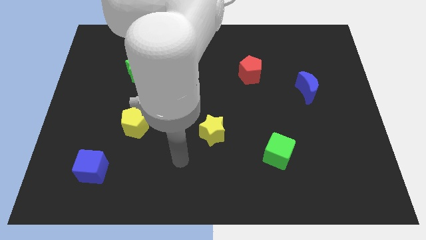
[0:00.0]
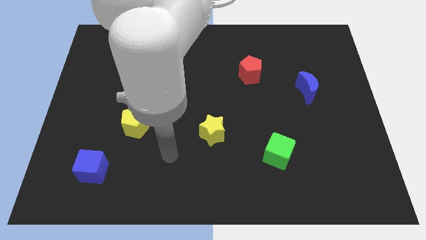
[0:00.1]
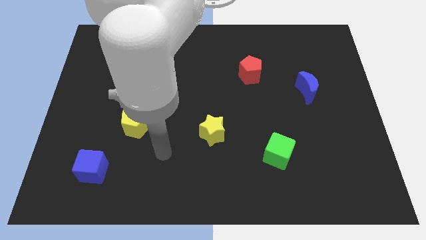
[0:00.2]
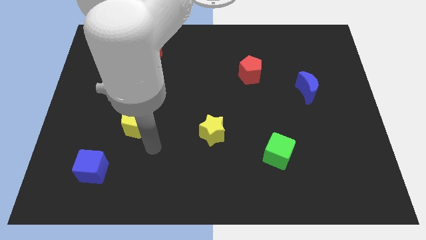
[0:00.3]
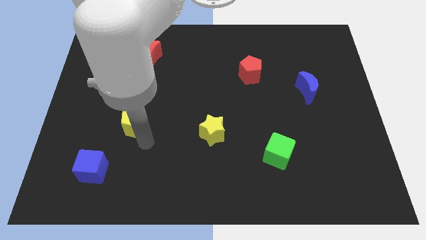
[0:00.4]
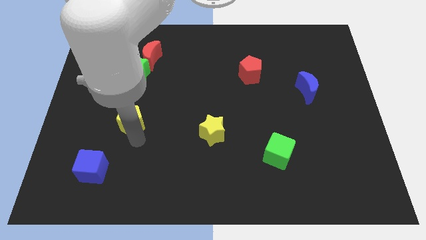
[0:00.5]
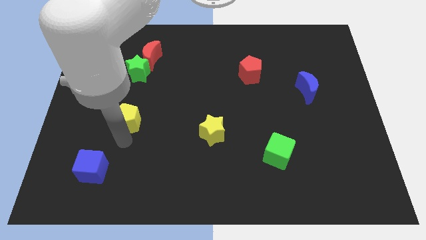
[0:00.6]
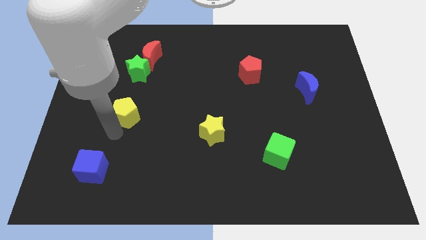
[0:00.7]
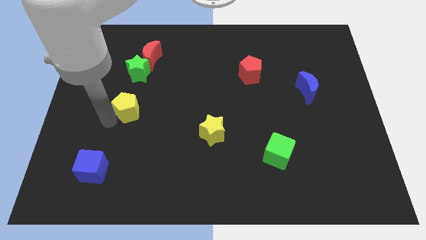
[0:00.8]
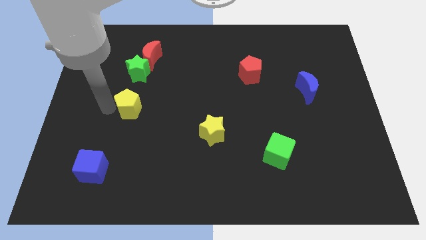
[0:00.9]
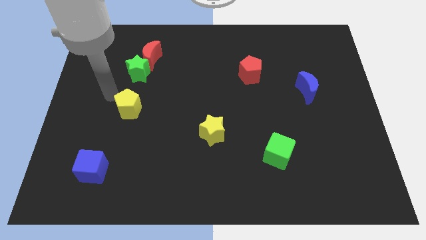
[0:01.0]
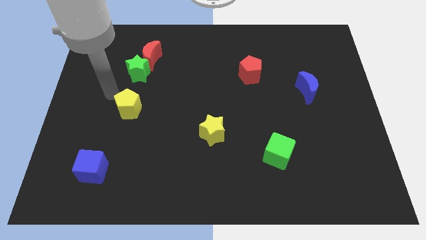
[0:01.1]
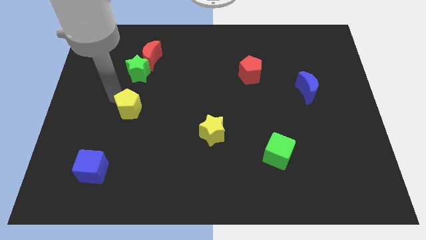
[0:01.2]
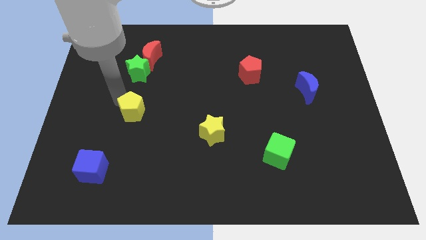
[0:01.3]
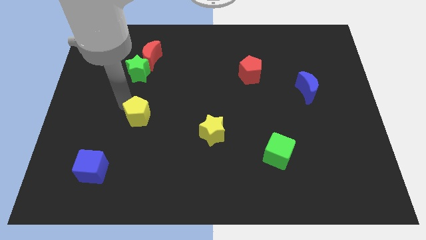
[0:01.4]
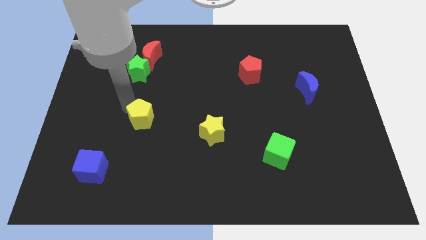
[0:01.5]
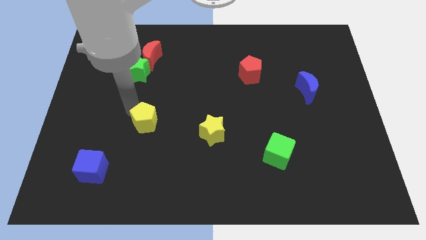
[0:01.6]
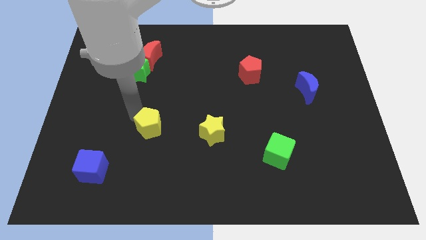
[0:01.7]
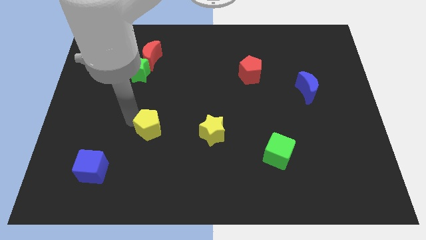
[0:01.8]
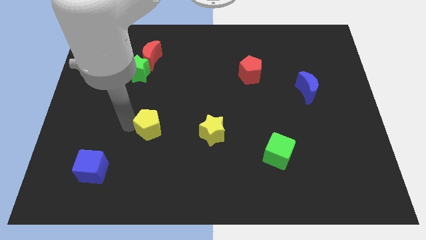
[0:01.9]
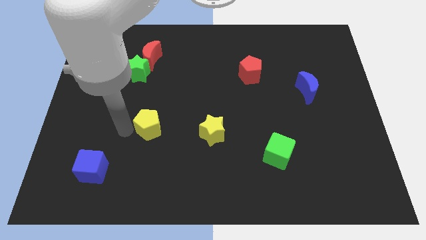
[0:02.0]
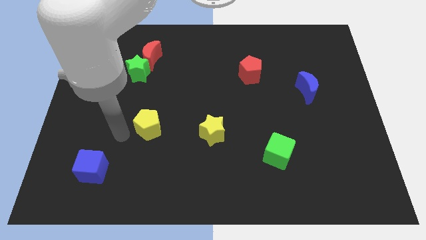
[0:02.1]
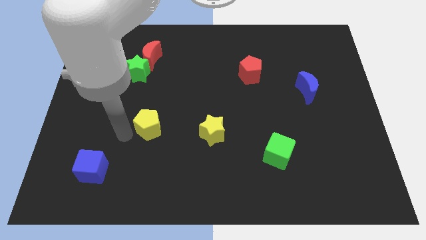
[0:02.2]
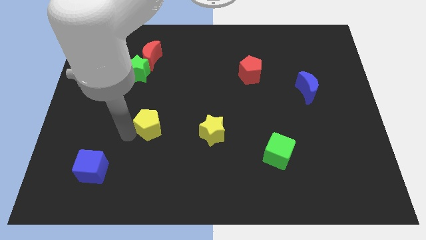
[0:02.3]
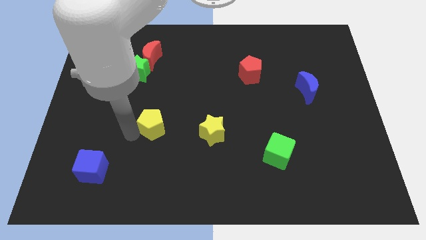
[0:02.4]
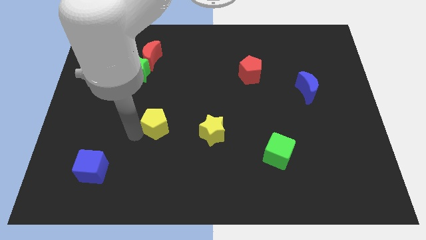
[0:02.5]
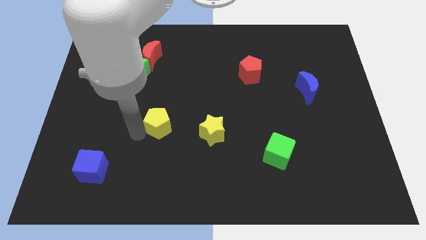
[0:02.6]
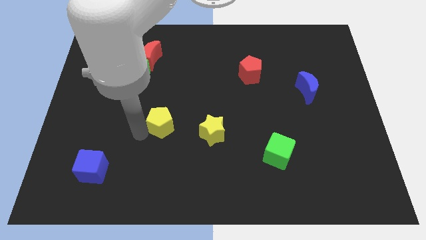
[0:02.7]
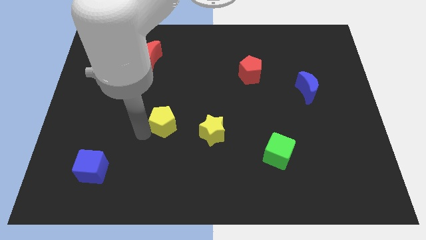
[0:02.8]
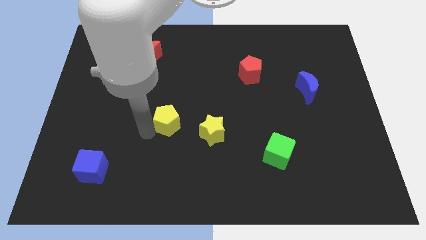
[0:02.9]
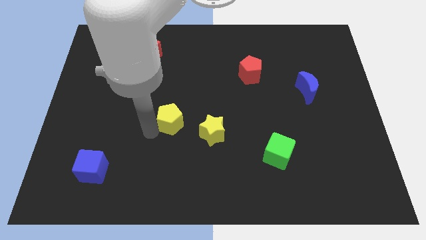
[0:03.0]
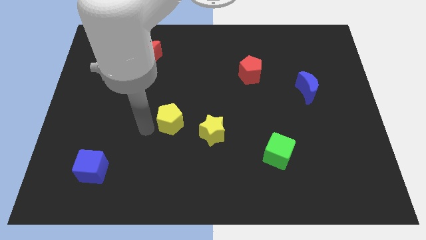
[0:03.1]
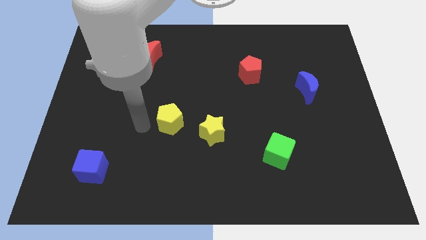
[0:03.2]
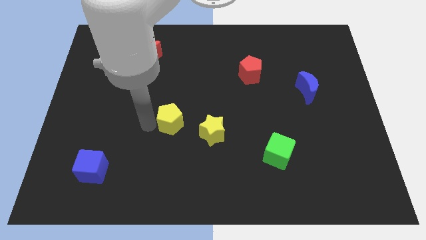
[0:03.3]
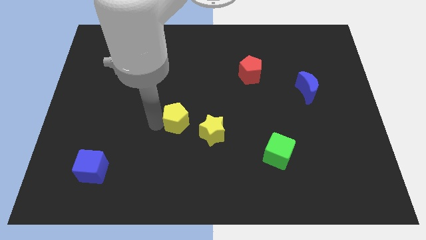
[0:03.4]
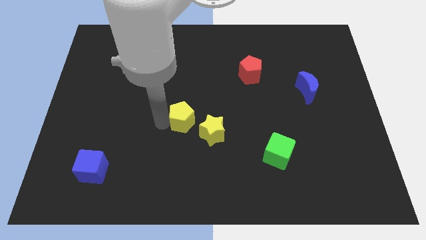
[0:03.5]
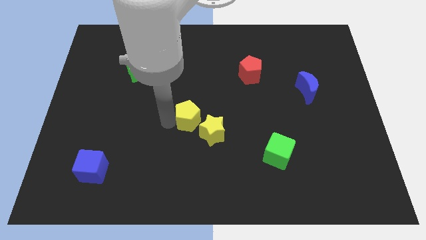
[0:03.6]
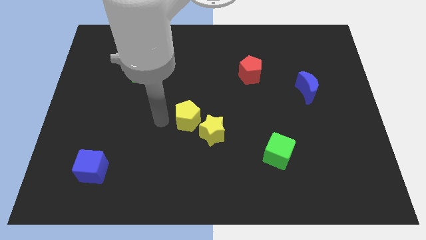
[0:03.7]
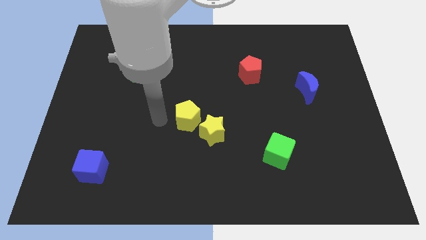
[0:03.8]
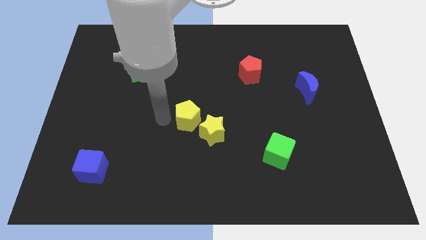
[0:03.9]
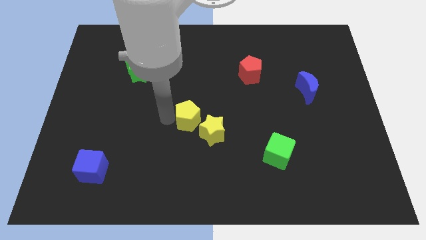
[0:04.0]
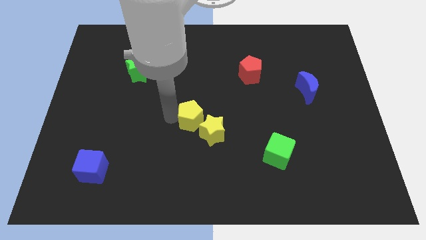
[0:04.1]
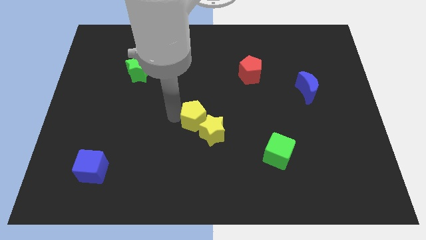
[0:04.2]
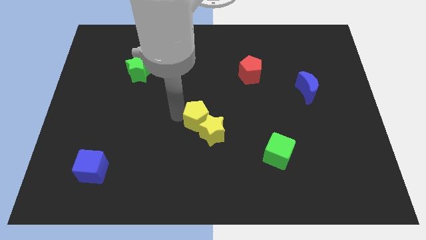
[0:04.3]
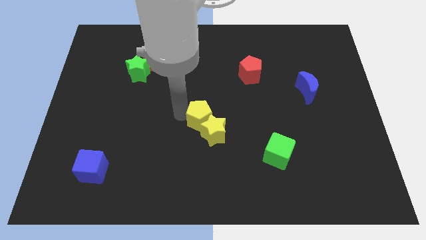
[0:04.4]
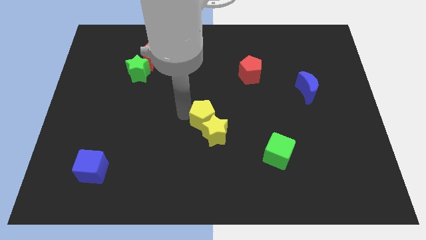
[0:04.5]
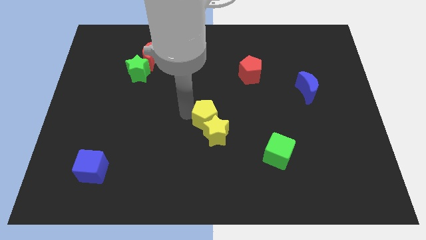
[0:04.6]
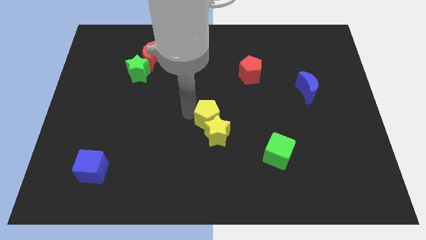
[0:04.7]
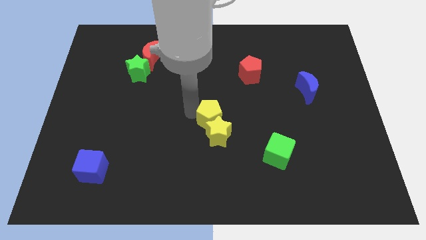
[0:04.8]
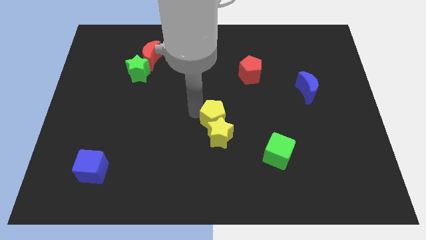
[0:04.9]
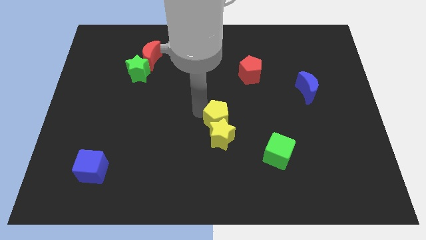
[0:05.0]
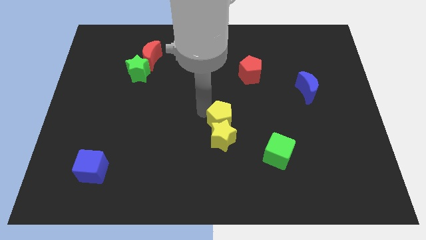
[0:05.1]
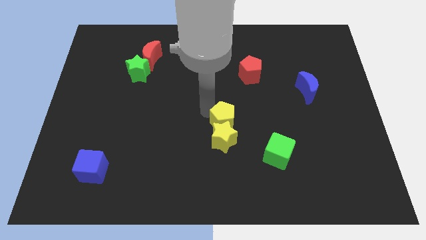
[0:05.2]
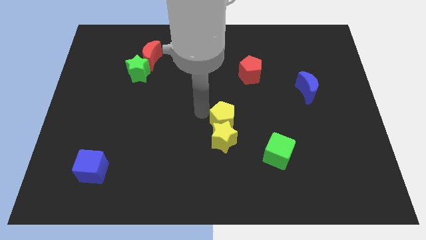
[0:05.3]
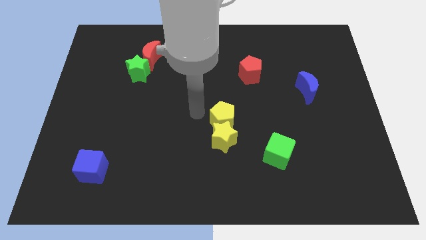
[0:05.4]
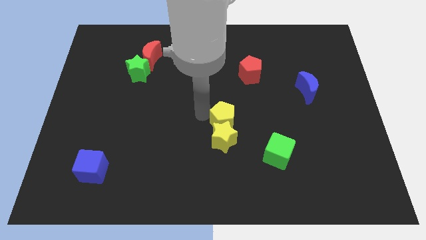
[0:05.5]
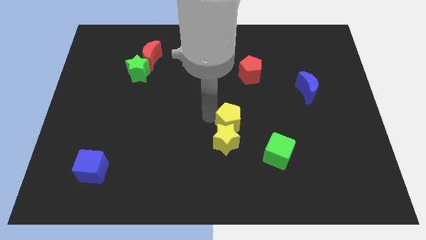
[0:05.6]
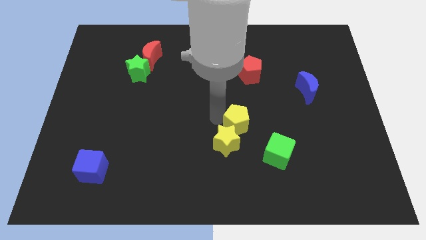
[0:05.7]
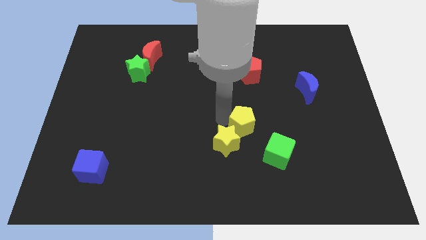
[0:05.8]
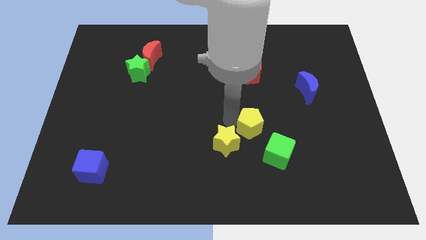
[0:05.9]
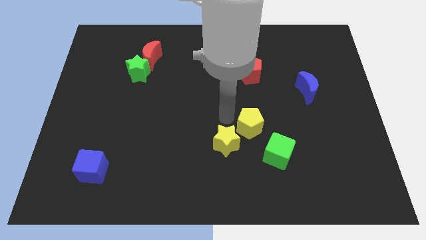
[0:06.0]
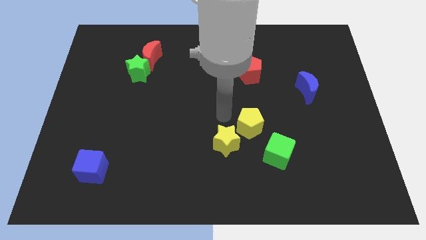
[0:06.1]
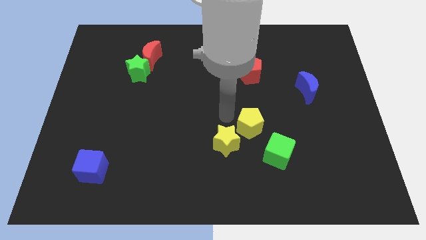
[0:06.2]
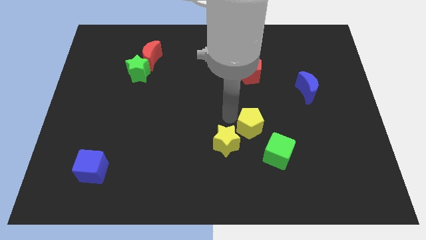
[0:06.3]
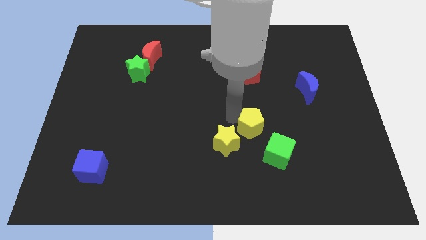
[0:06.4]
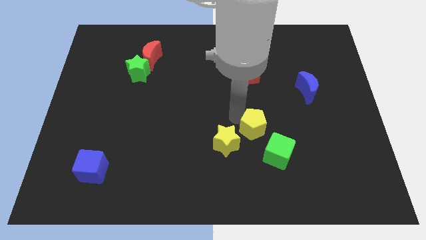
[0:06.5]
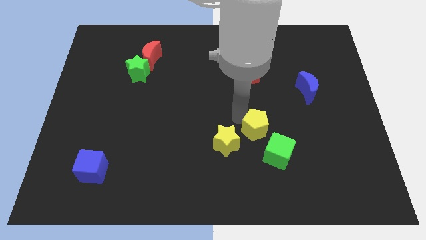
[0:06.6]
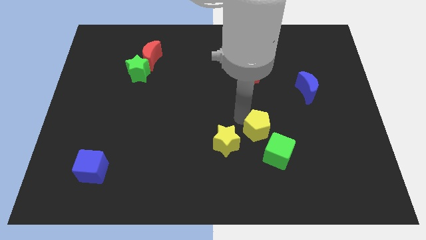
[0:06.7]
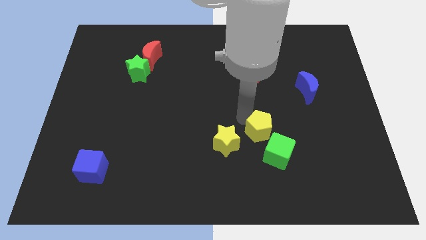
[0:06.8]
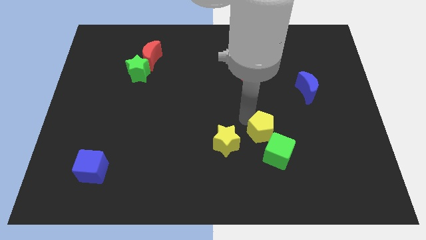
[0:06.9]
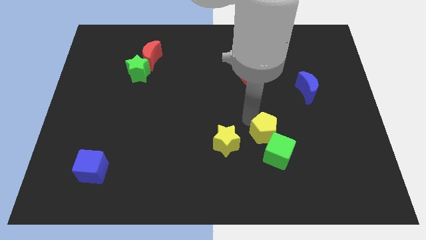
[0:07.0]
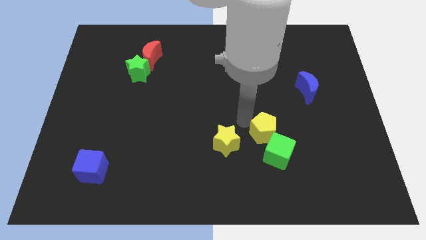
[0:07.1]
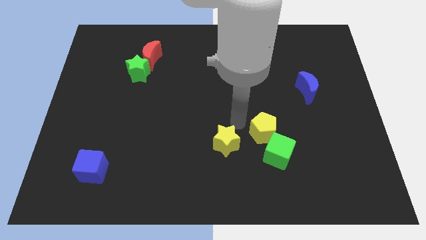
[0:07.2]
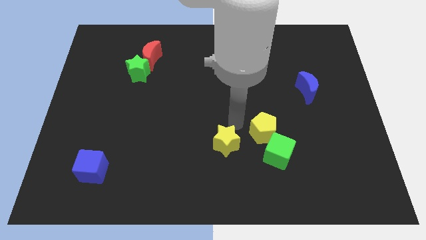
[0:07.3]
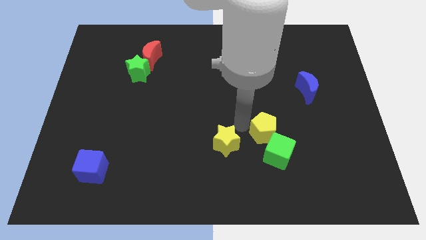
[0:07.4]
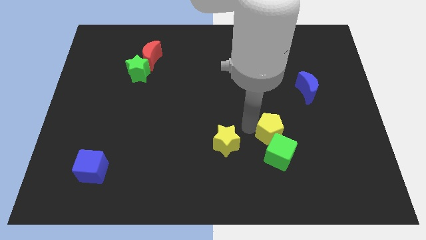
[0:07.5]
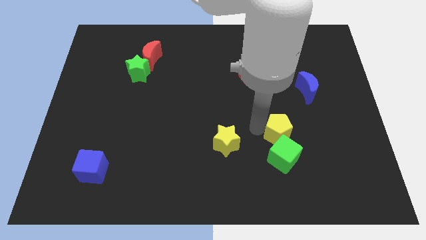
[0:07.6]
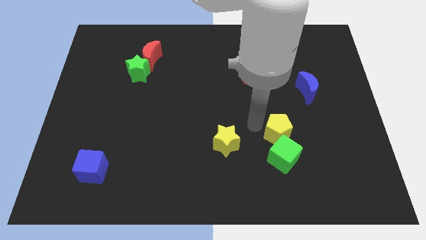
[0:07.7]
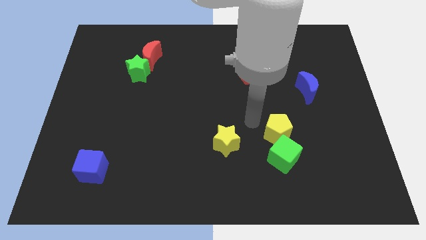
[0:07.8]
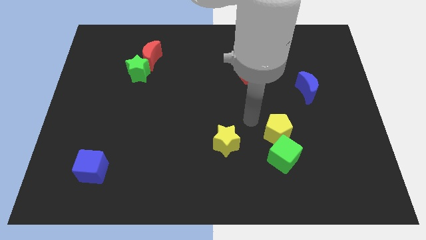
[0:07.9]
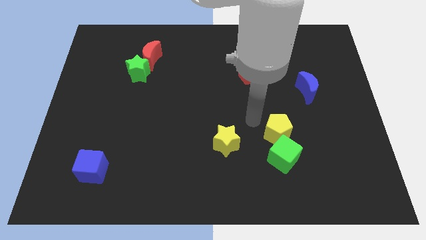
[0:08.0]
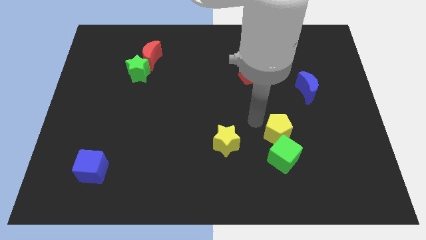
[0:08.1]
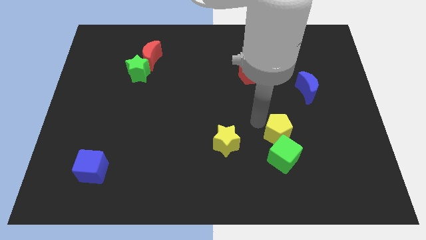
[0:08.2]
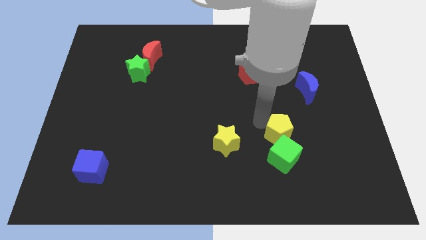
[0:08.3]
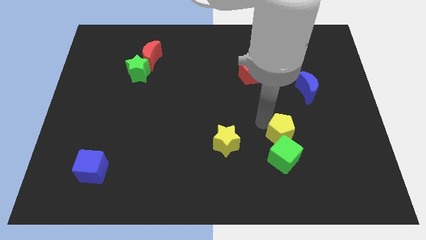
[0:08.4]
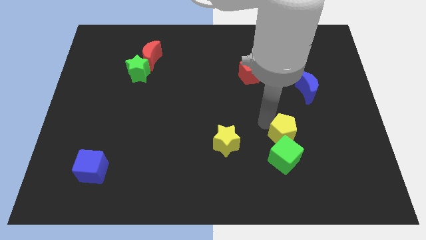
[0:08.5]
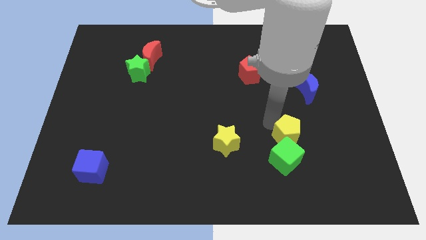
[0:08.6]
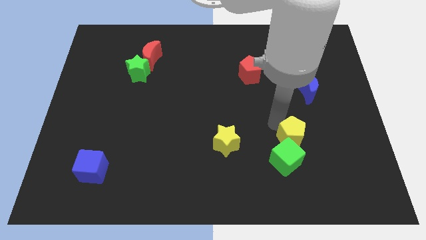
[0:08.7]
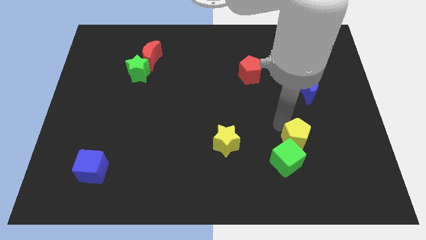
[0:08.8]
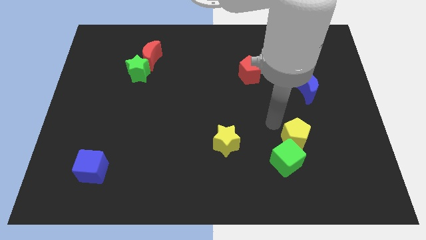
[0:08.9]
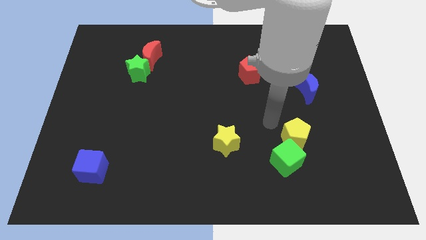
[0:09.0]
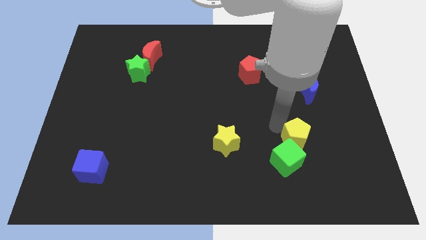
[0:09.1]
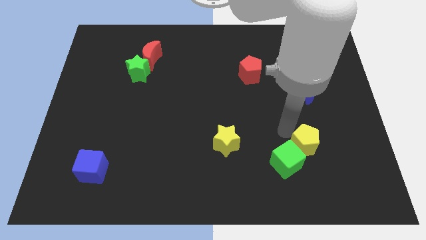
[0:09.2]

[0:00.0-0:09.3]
push the yellow pentagon to the right side of the green cube
